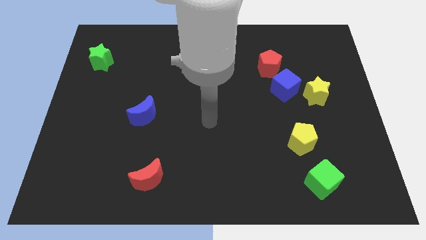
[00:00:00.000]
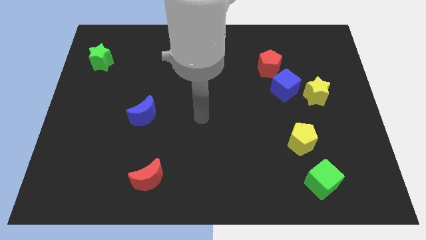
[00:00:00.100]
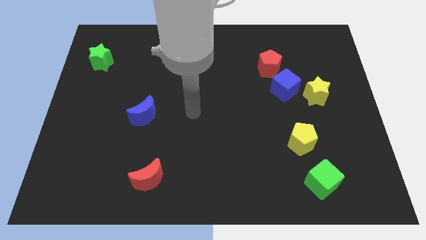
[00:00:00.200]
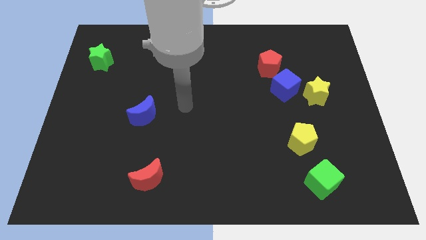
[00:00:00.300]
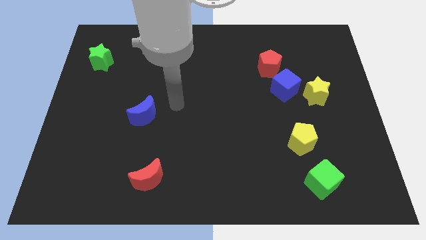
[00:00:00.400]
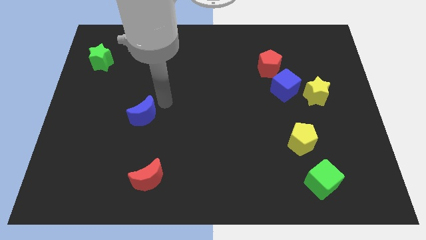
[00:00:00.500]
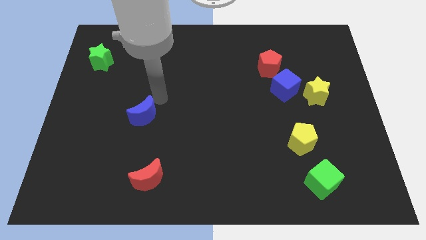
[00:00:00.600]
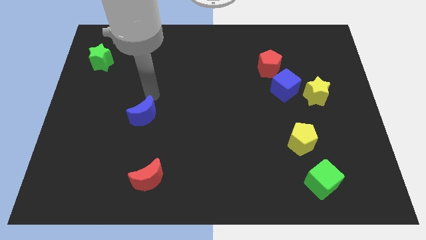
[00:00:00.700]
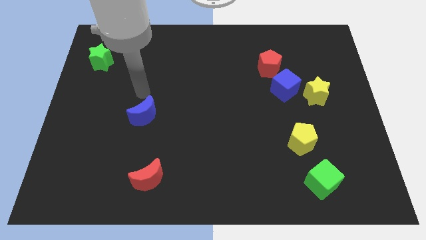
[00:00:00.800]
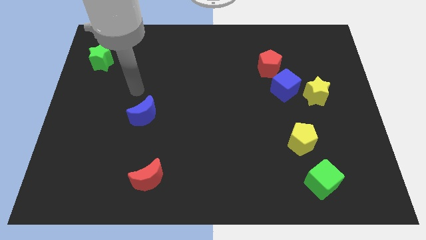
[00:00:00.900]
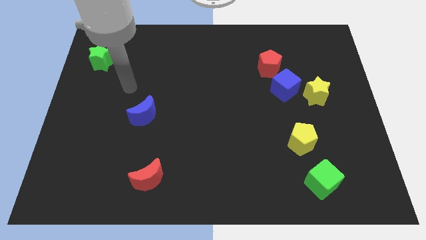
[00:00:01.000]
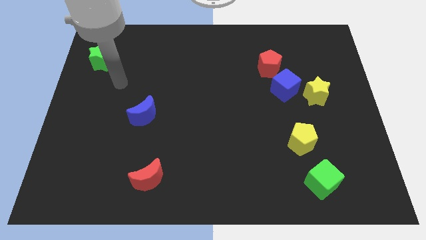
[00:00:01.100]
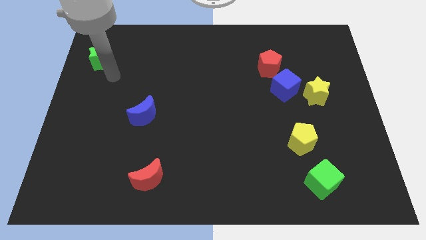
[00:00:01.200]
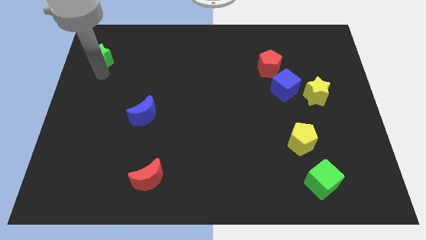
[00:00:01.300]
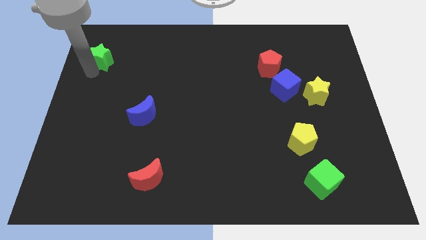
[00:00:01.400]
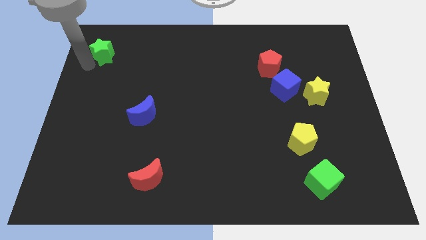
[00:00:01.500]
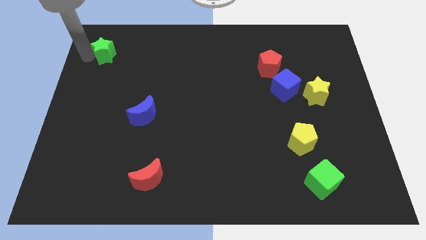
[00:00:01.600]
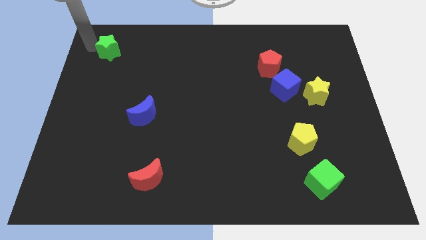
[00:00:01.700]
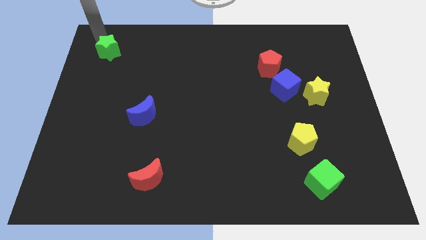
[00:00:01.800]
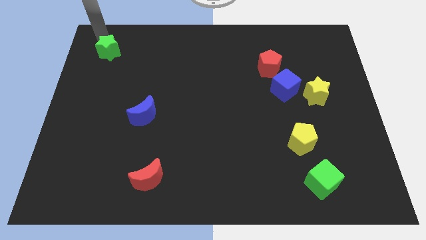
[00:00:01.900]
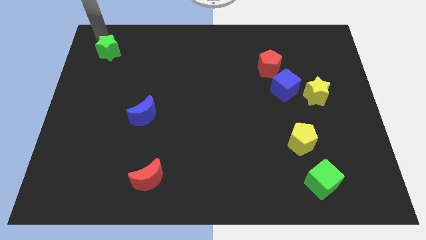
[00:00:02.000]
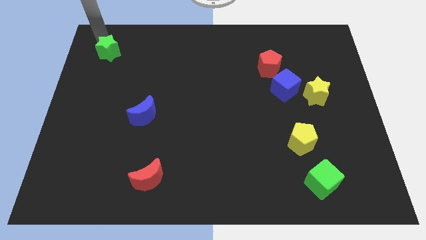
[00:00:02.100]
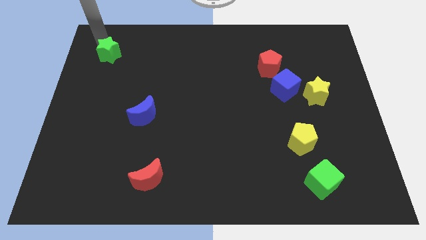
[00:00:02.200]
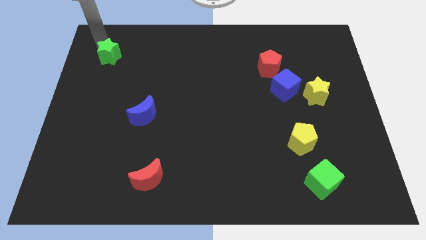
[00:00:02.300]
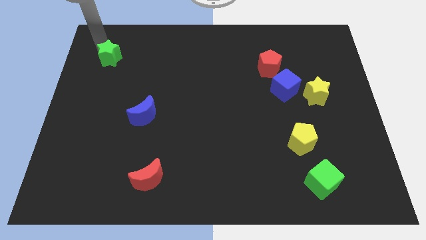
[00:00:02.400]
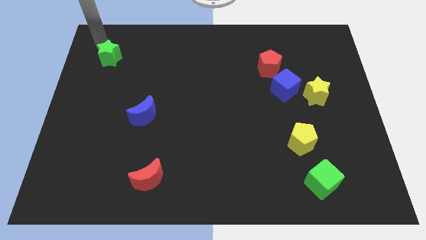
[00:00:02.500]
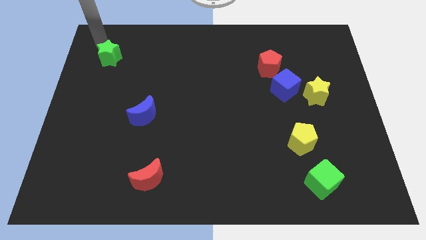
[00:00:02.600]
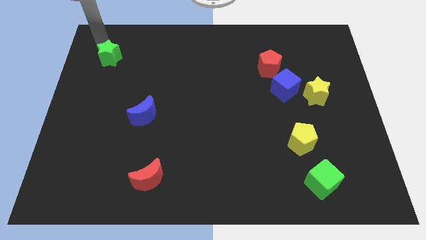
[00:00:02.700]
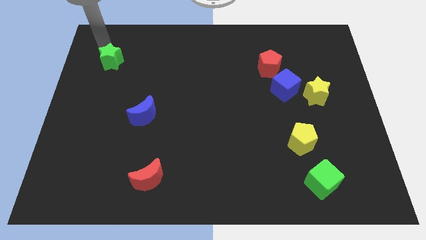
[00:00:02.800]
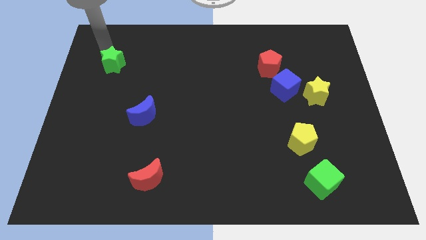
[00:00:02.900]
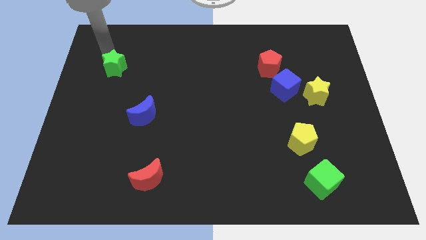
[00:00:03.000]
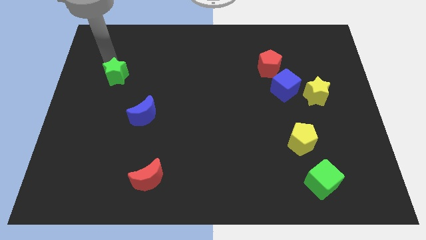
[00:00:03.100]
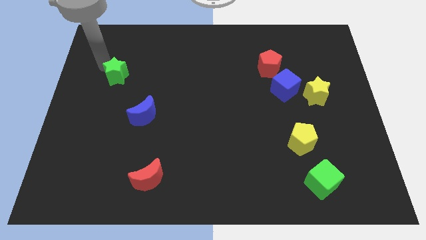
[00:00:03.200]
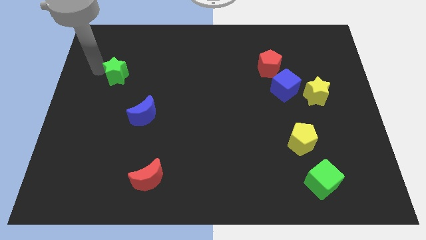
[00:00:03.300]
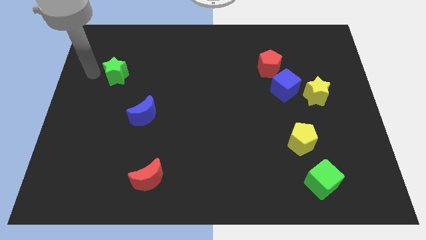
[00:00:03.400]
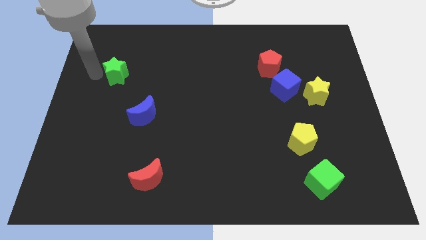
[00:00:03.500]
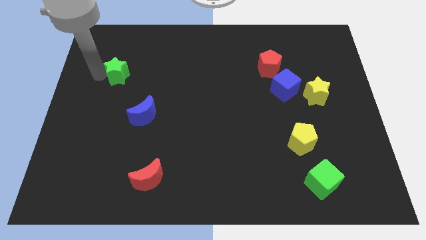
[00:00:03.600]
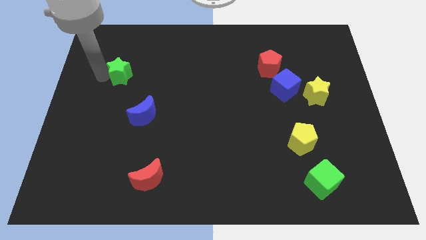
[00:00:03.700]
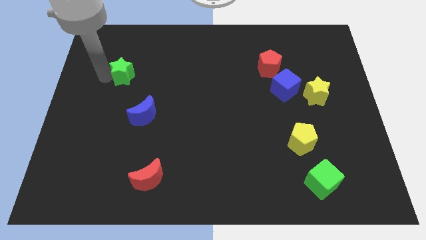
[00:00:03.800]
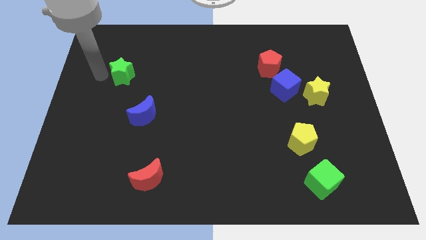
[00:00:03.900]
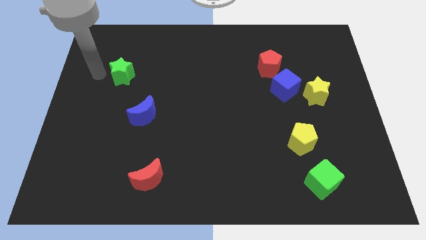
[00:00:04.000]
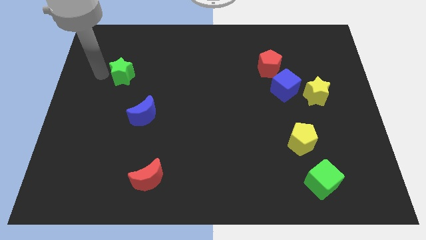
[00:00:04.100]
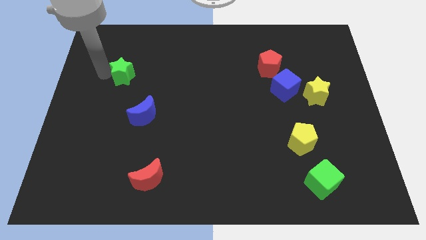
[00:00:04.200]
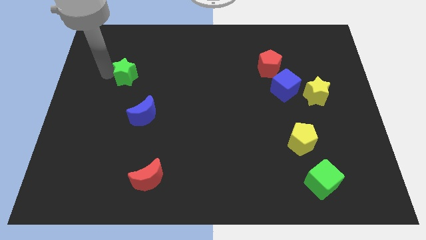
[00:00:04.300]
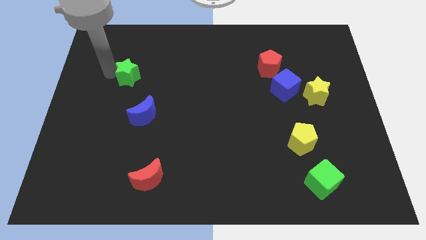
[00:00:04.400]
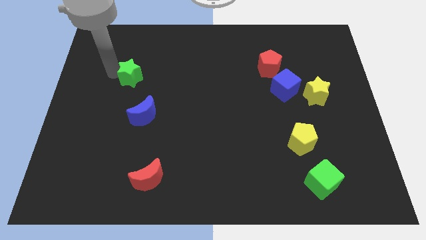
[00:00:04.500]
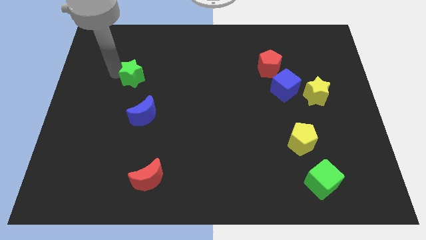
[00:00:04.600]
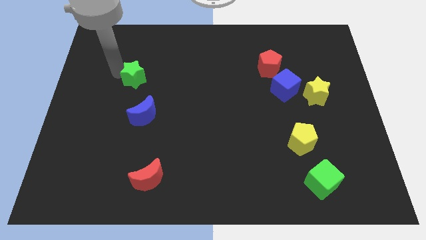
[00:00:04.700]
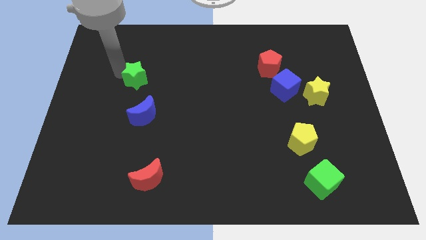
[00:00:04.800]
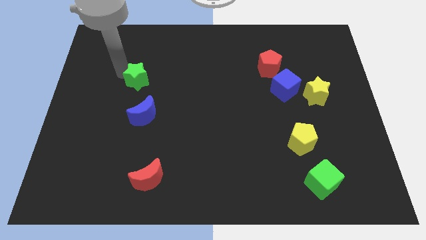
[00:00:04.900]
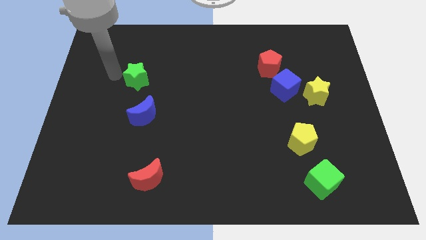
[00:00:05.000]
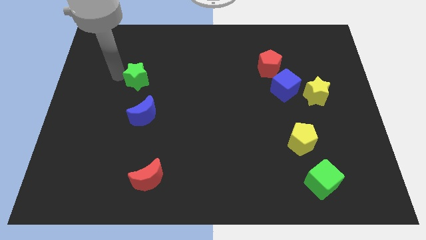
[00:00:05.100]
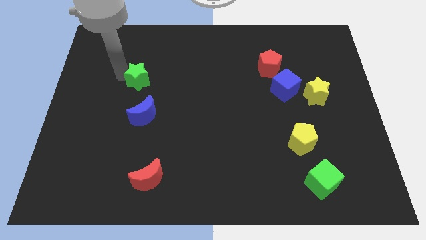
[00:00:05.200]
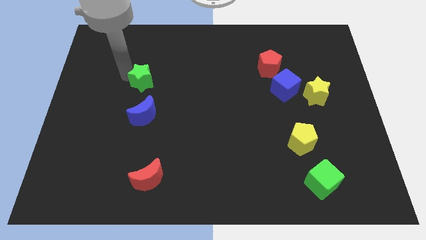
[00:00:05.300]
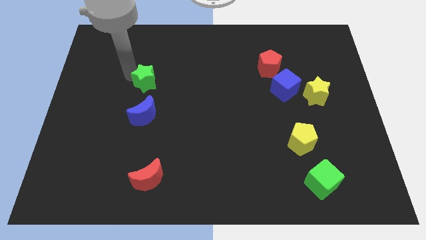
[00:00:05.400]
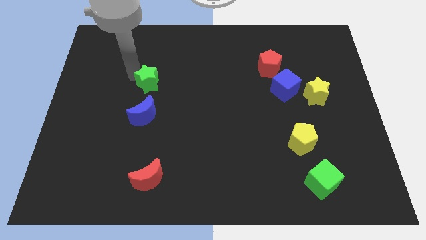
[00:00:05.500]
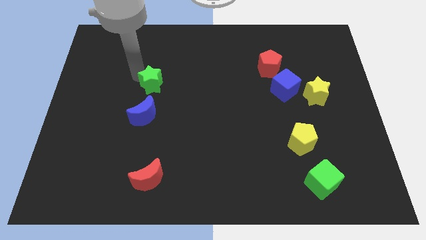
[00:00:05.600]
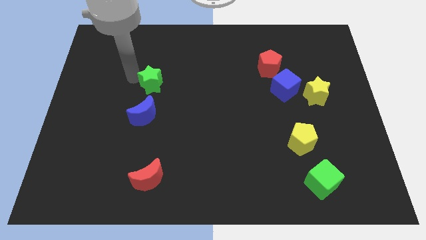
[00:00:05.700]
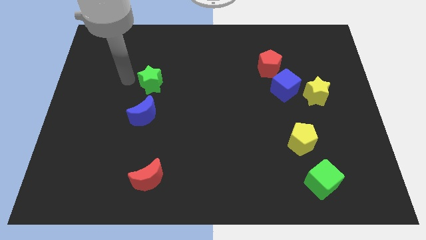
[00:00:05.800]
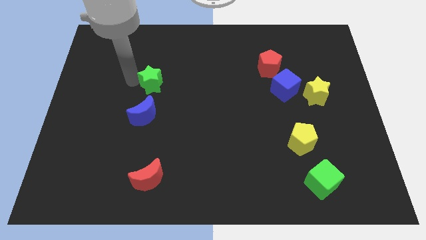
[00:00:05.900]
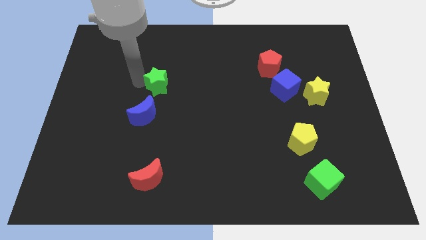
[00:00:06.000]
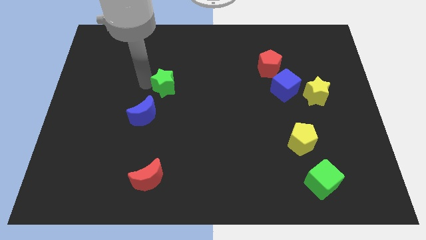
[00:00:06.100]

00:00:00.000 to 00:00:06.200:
push the green star to the middle
